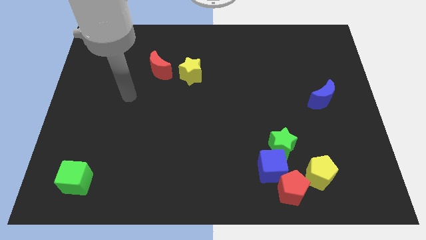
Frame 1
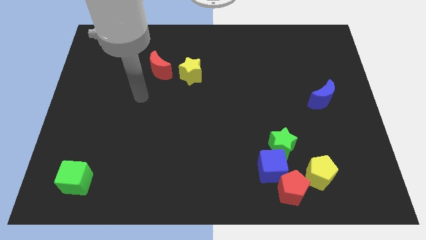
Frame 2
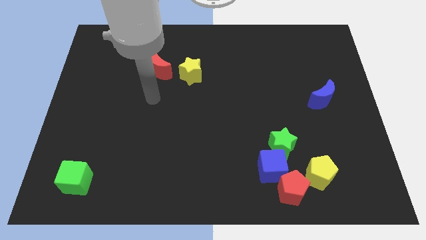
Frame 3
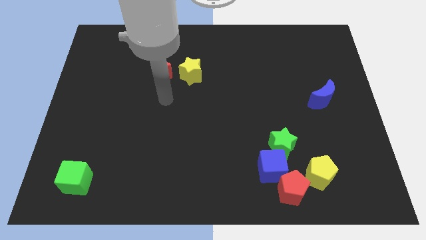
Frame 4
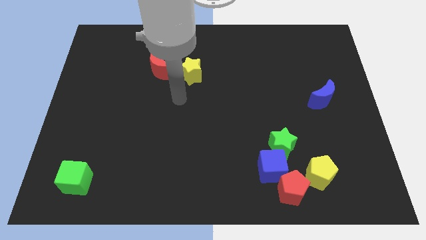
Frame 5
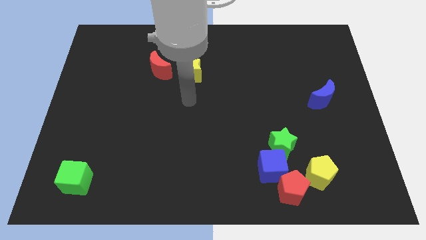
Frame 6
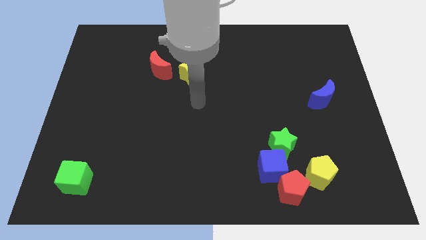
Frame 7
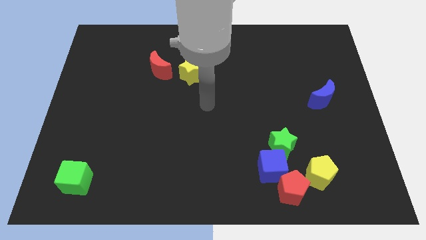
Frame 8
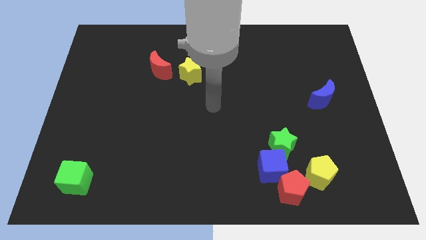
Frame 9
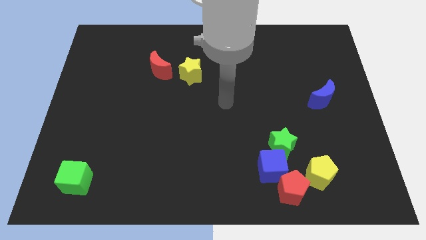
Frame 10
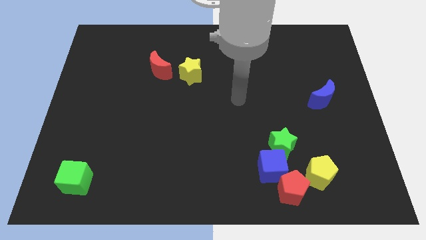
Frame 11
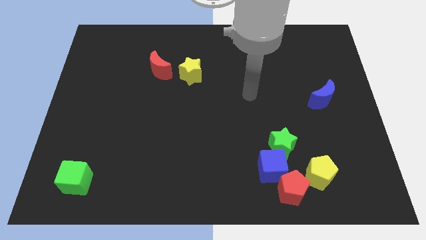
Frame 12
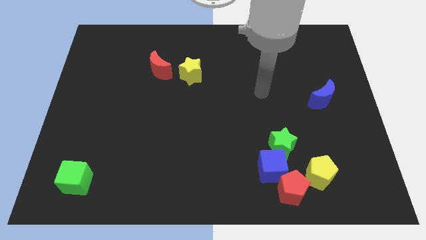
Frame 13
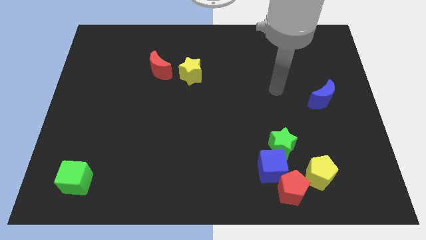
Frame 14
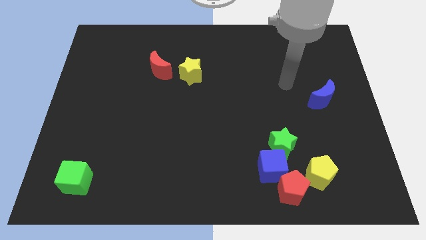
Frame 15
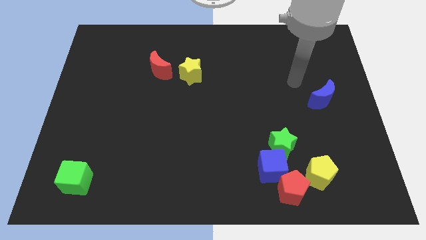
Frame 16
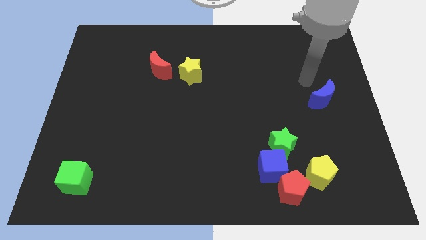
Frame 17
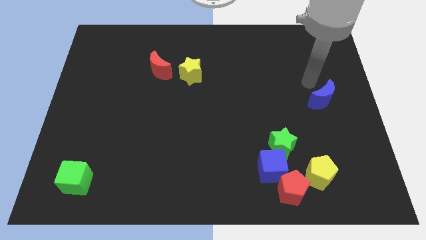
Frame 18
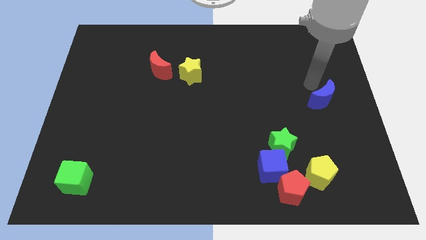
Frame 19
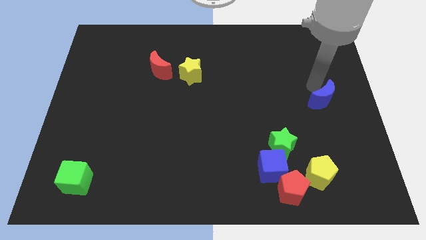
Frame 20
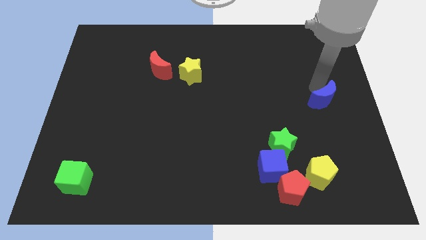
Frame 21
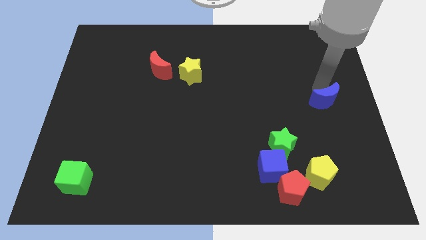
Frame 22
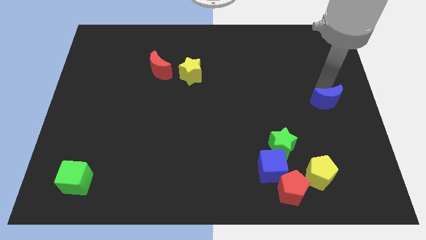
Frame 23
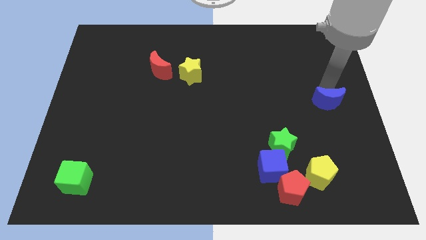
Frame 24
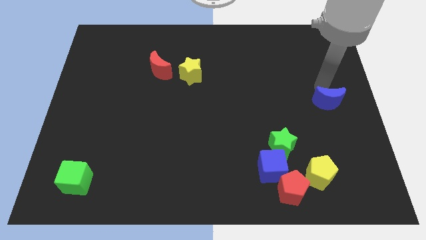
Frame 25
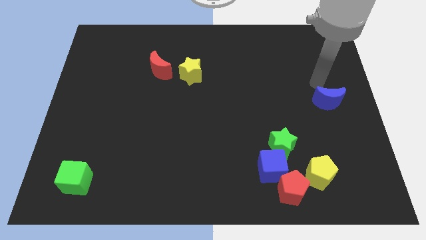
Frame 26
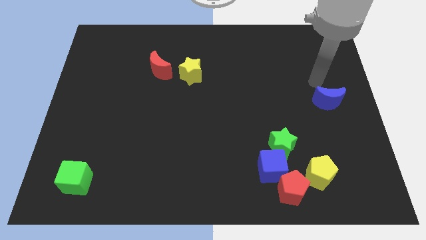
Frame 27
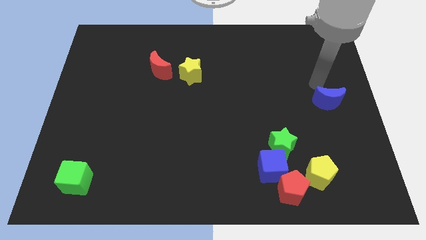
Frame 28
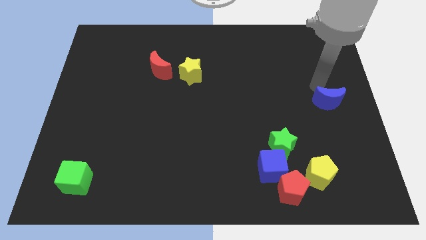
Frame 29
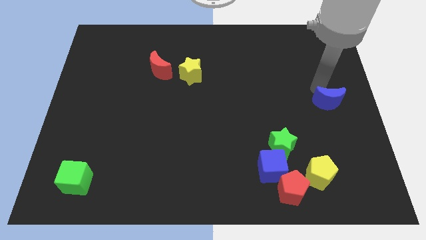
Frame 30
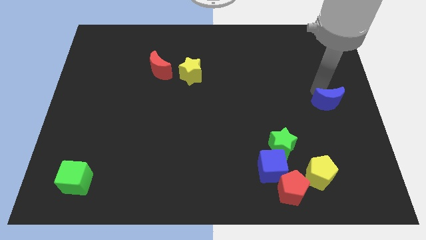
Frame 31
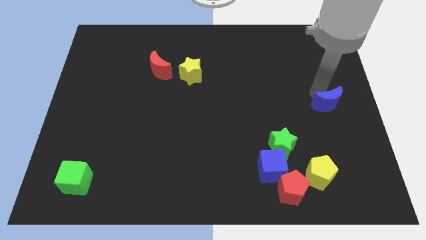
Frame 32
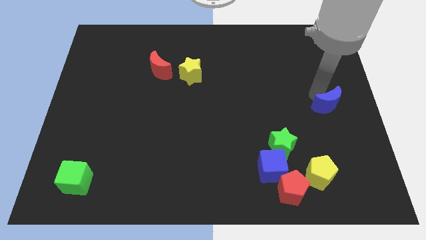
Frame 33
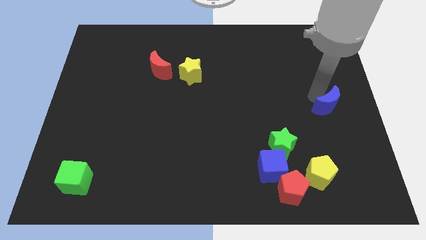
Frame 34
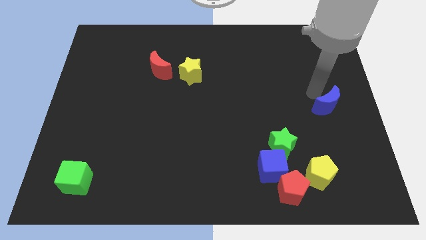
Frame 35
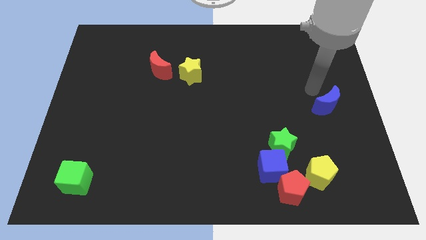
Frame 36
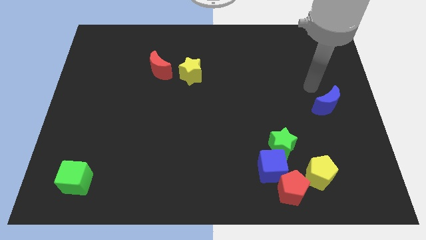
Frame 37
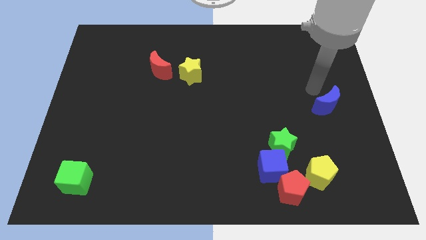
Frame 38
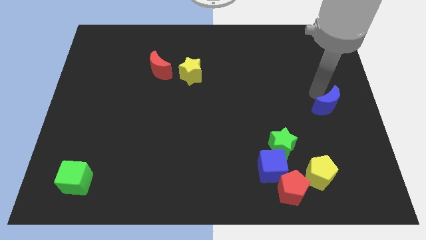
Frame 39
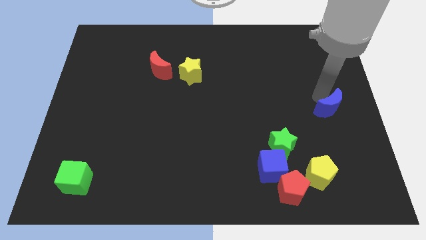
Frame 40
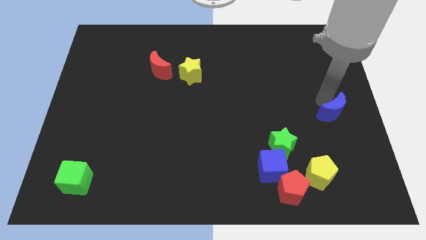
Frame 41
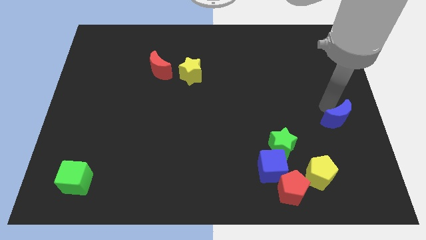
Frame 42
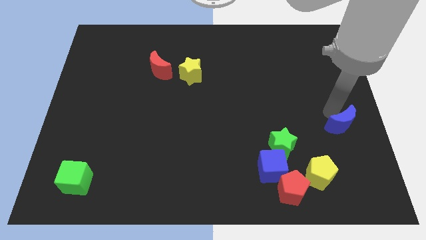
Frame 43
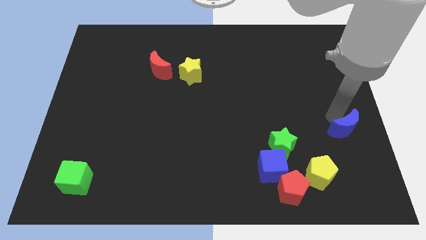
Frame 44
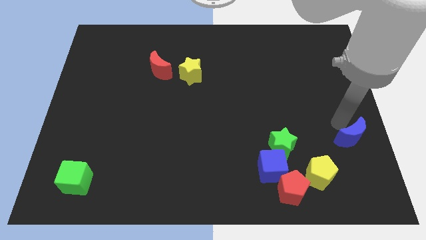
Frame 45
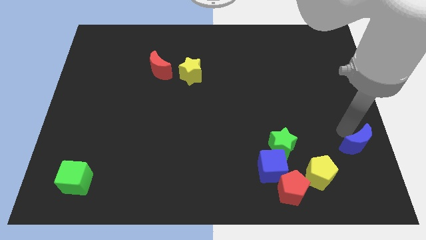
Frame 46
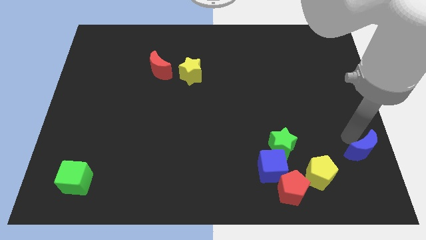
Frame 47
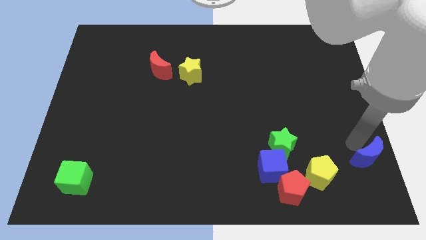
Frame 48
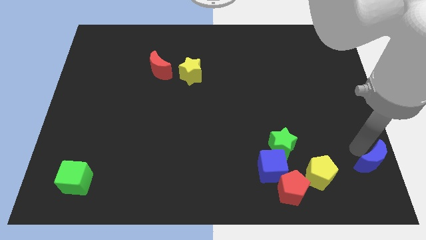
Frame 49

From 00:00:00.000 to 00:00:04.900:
push the blue moon to the bottom right corner

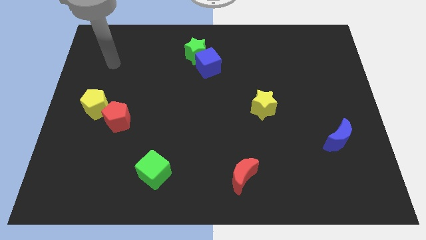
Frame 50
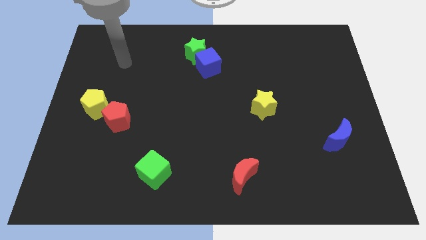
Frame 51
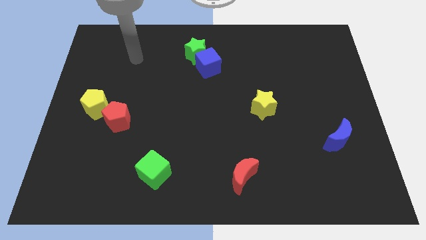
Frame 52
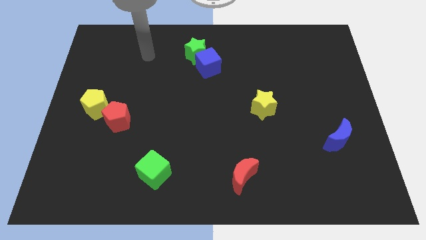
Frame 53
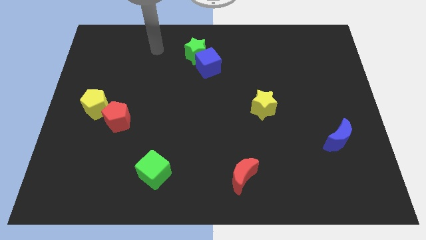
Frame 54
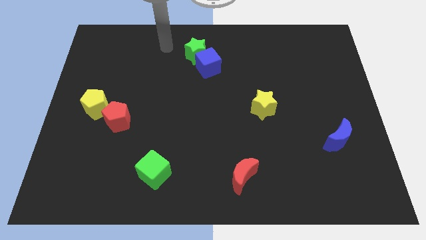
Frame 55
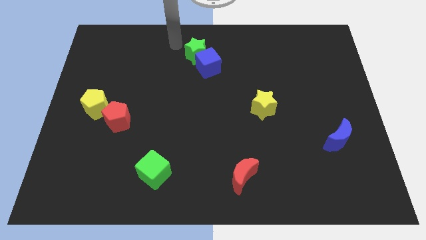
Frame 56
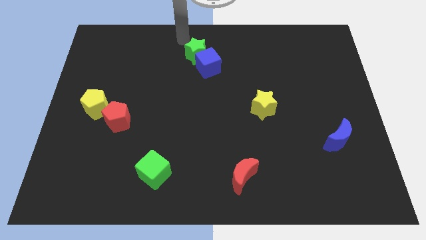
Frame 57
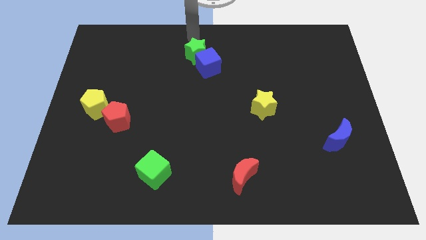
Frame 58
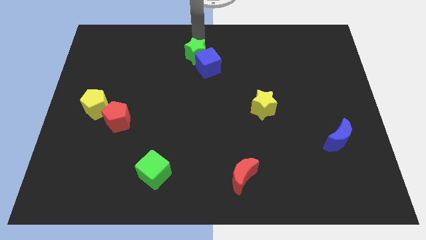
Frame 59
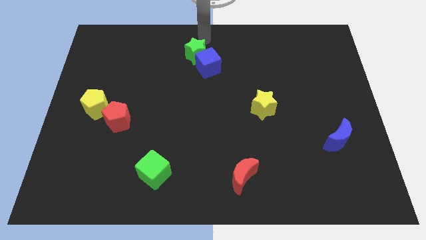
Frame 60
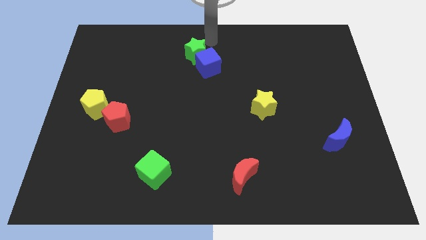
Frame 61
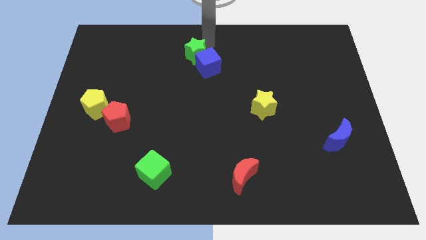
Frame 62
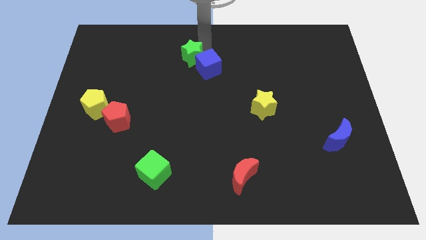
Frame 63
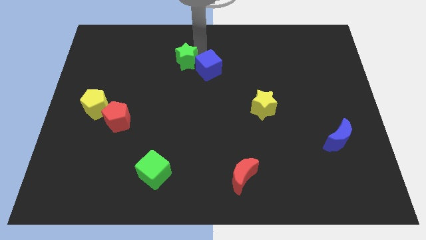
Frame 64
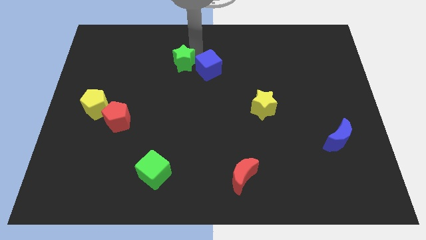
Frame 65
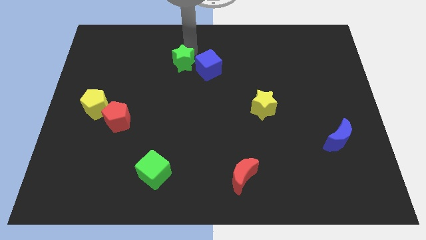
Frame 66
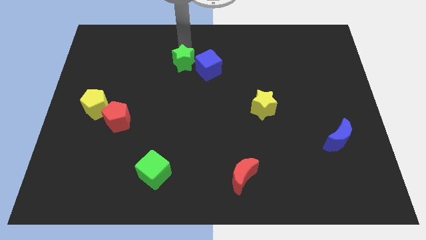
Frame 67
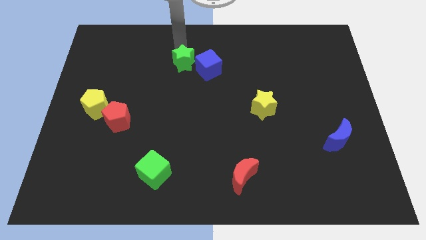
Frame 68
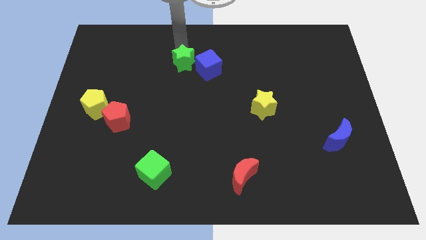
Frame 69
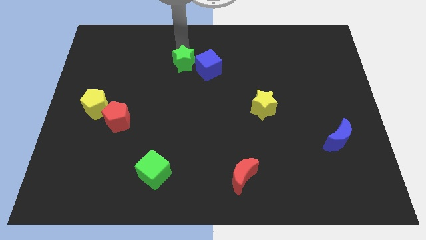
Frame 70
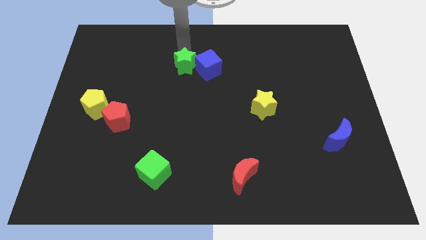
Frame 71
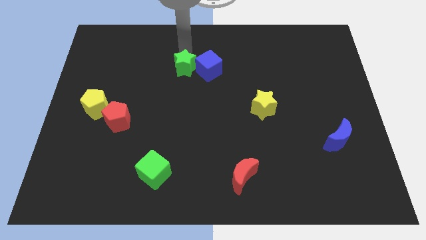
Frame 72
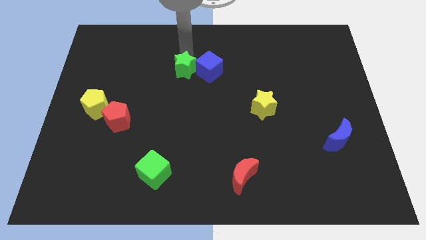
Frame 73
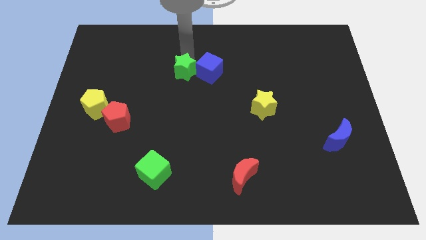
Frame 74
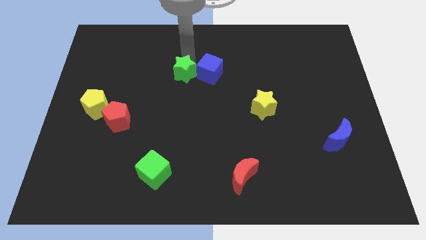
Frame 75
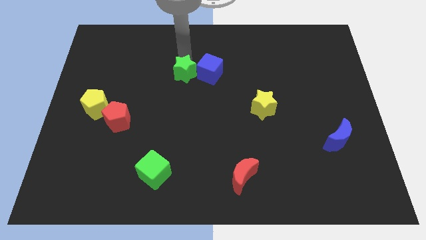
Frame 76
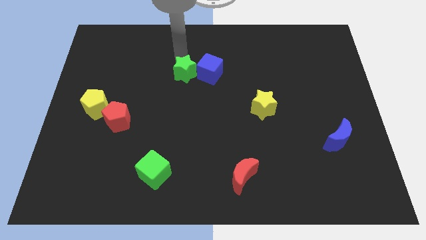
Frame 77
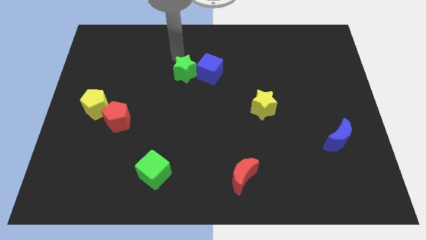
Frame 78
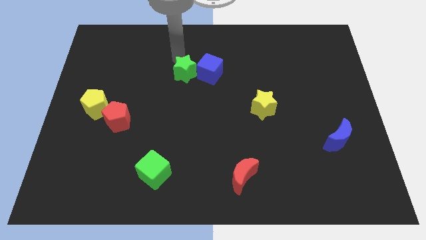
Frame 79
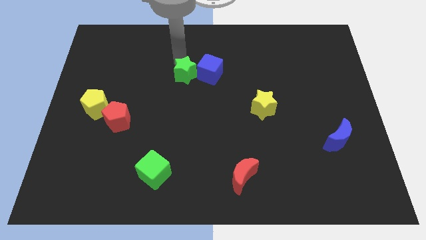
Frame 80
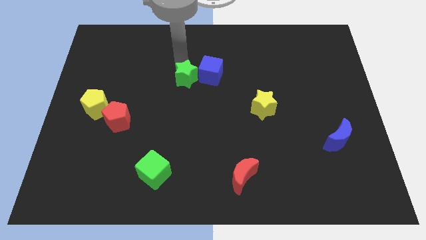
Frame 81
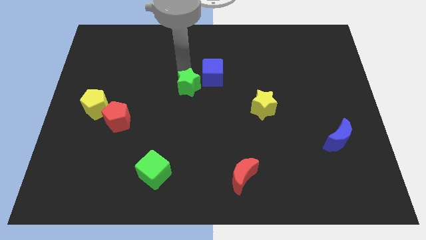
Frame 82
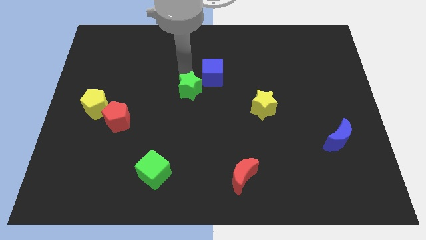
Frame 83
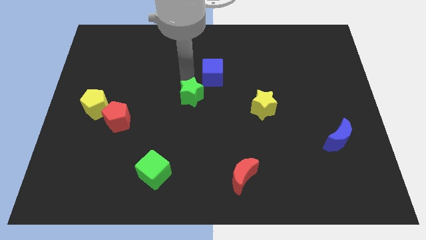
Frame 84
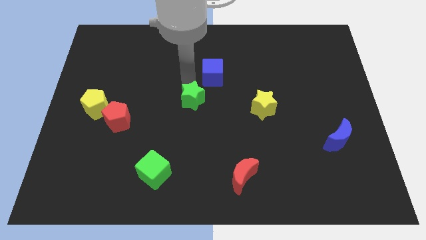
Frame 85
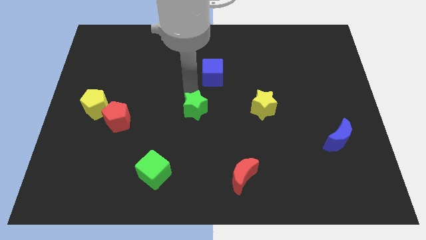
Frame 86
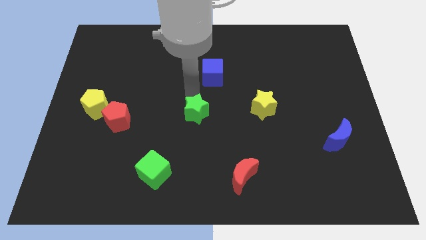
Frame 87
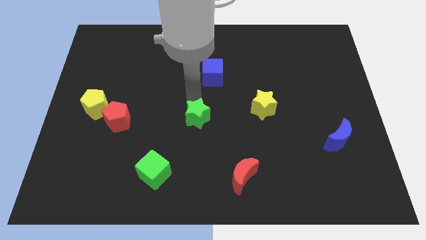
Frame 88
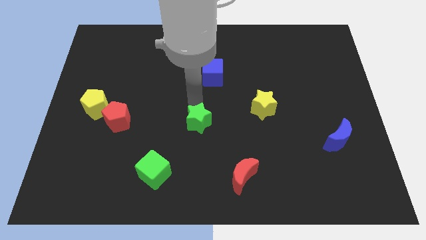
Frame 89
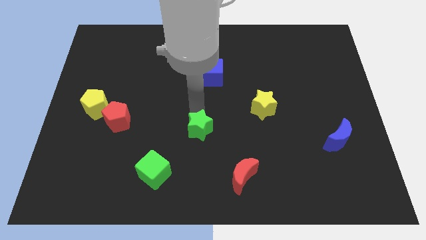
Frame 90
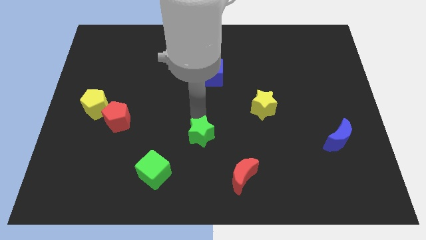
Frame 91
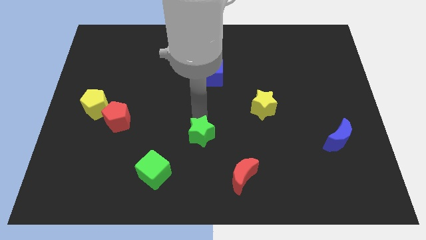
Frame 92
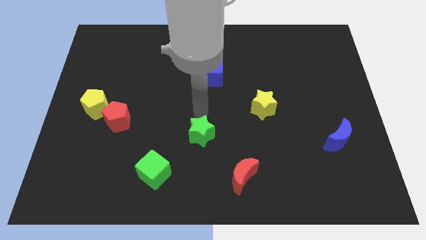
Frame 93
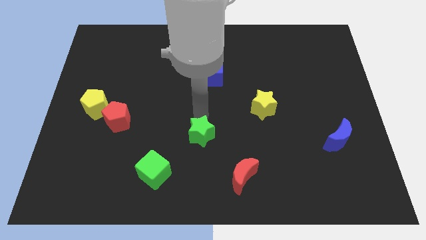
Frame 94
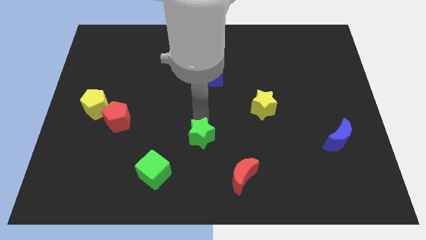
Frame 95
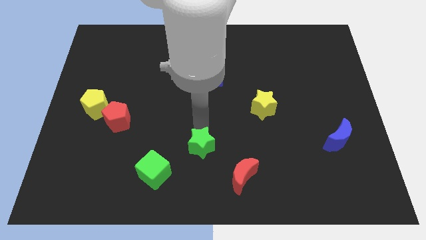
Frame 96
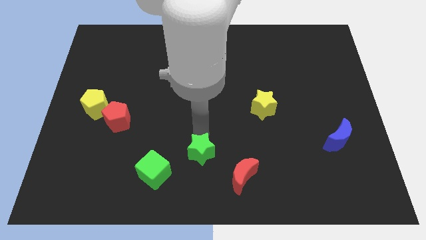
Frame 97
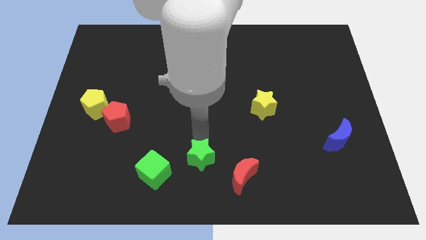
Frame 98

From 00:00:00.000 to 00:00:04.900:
push the green star to the bottom side
